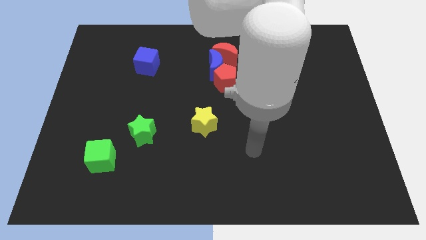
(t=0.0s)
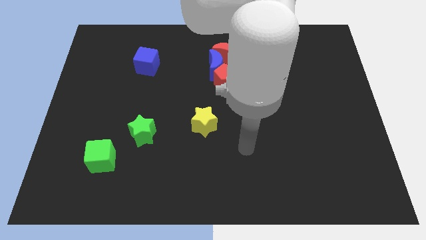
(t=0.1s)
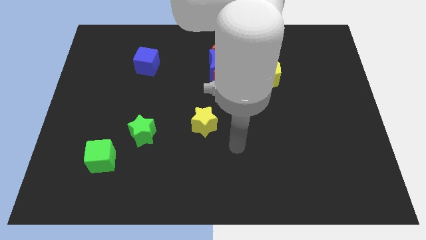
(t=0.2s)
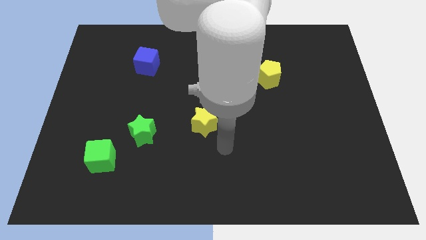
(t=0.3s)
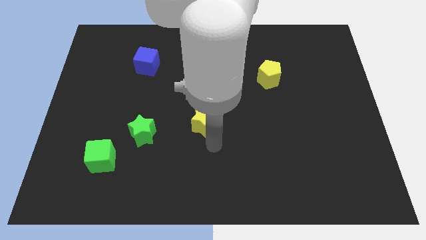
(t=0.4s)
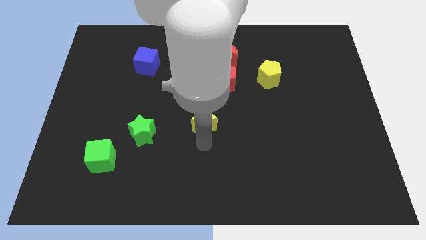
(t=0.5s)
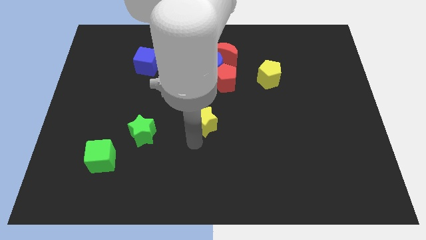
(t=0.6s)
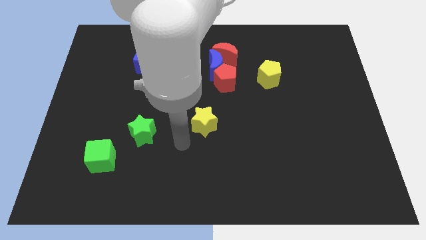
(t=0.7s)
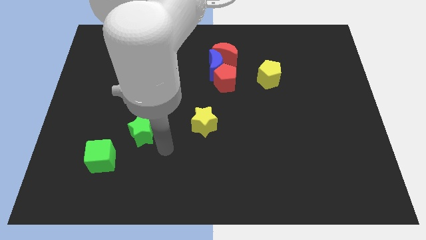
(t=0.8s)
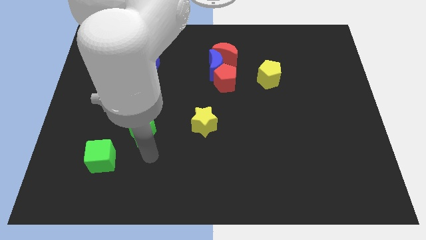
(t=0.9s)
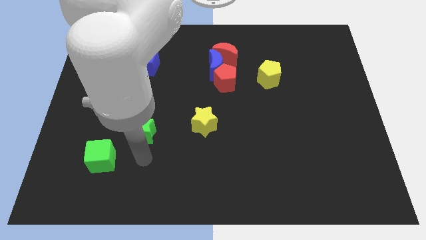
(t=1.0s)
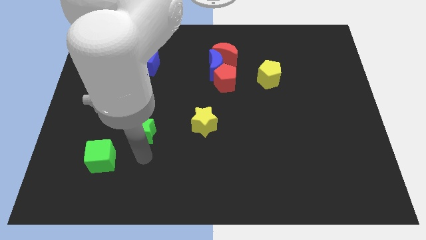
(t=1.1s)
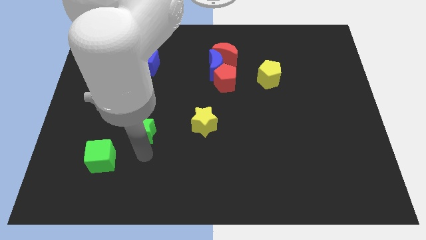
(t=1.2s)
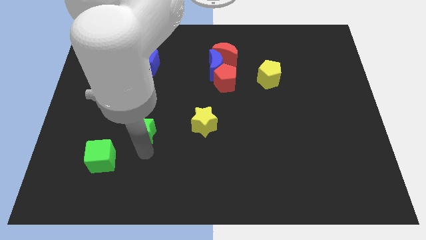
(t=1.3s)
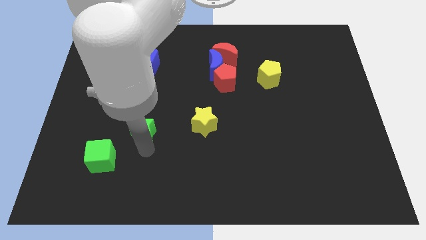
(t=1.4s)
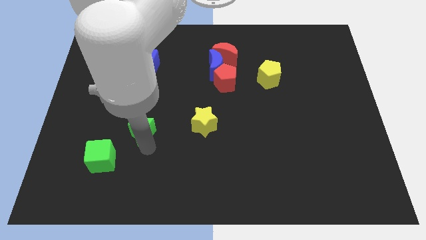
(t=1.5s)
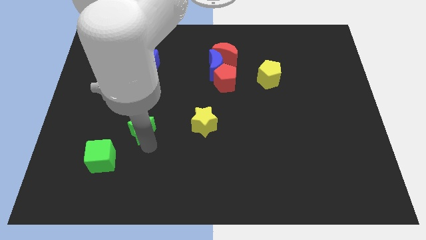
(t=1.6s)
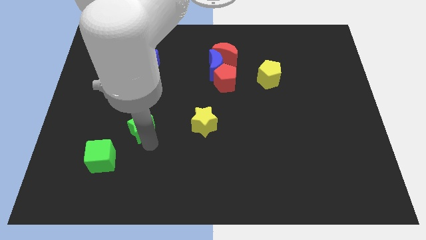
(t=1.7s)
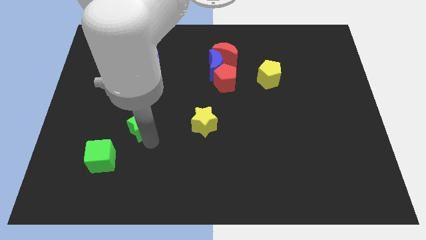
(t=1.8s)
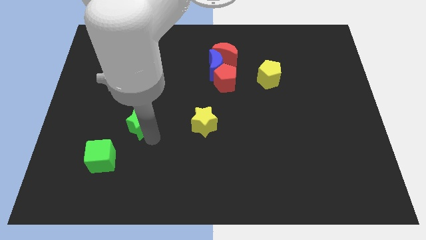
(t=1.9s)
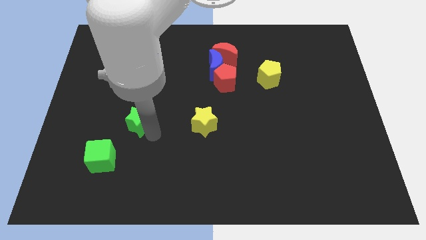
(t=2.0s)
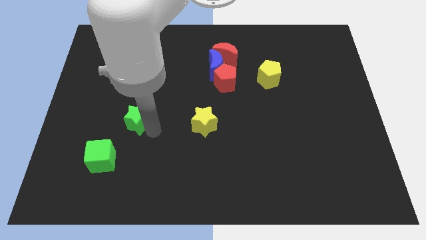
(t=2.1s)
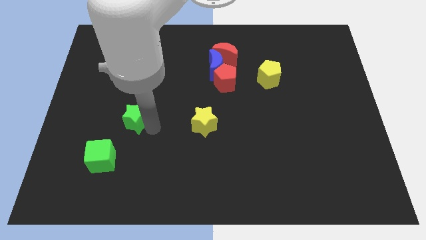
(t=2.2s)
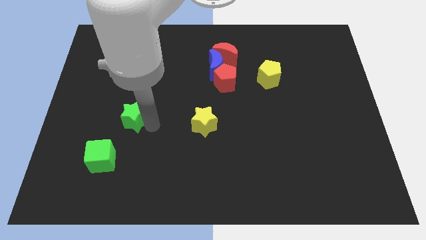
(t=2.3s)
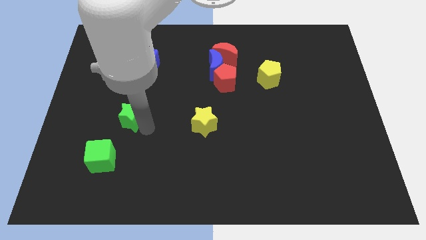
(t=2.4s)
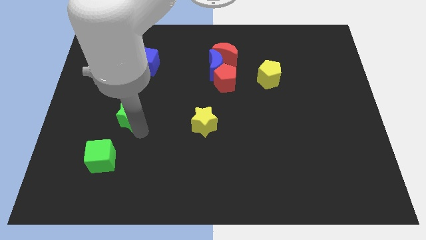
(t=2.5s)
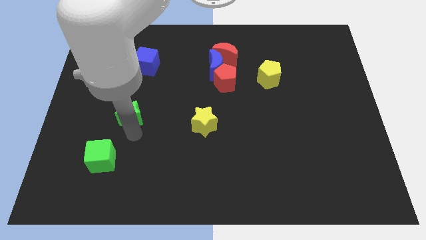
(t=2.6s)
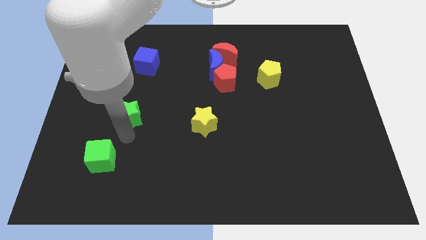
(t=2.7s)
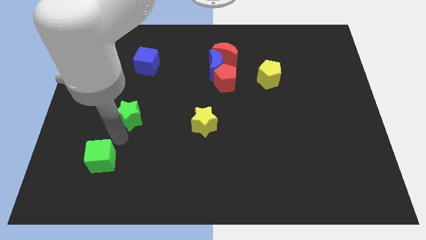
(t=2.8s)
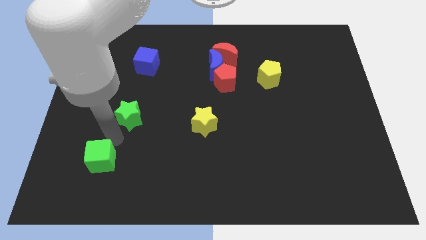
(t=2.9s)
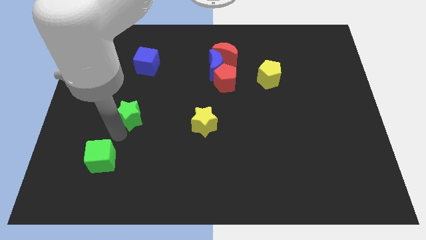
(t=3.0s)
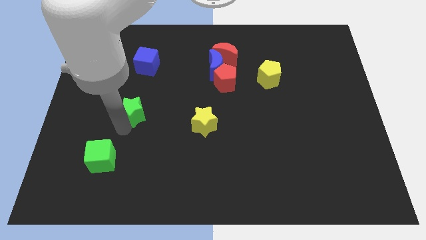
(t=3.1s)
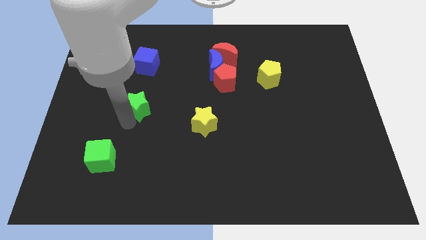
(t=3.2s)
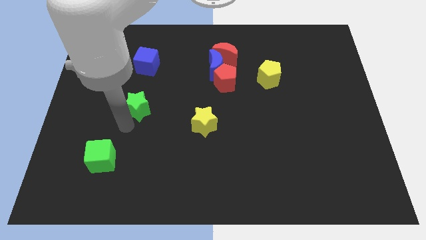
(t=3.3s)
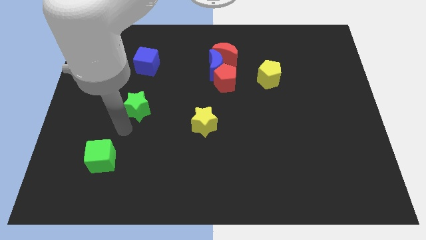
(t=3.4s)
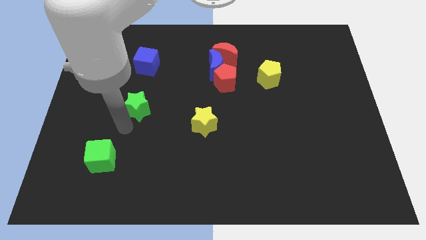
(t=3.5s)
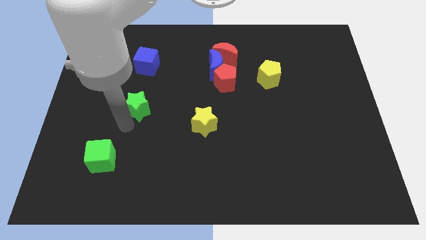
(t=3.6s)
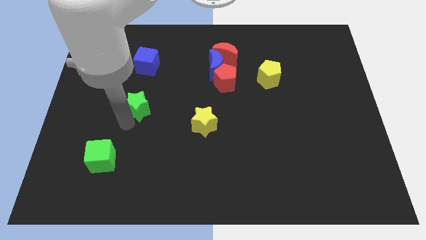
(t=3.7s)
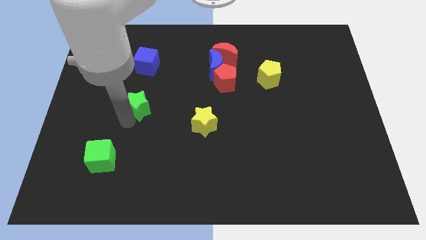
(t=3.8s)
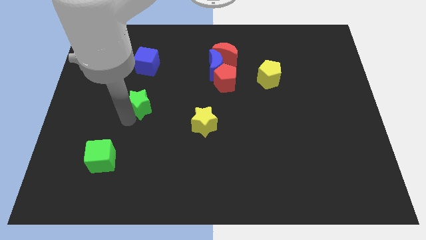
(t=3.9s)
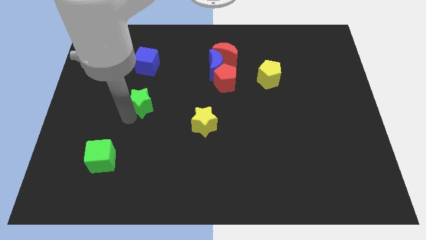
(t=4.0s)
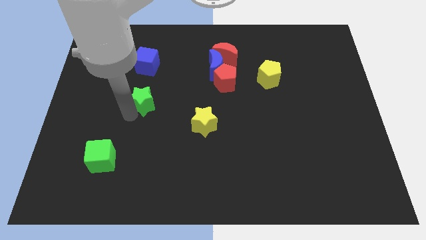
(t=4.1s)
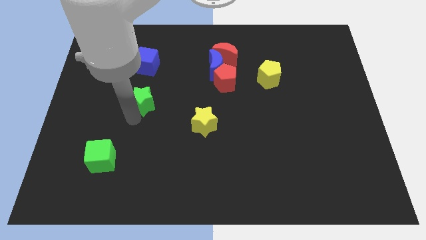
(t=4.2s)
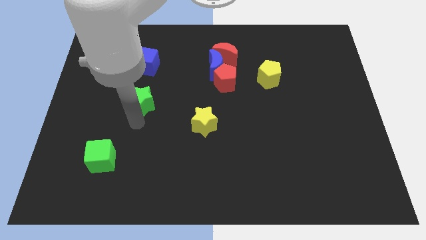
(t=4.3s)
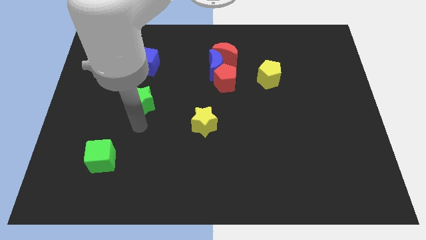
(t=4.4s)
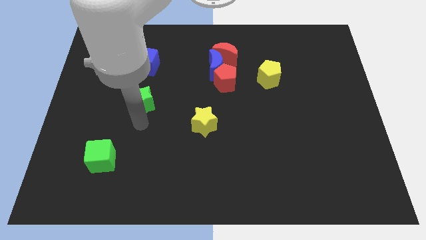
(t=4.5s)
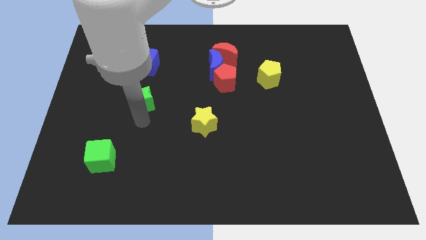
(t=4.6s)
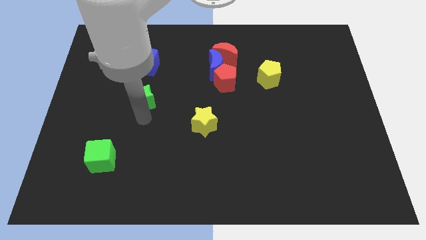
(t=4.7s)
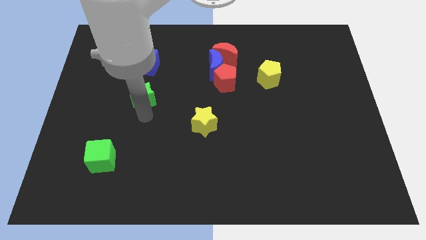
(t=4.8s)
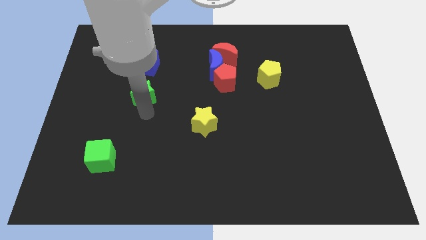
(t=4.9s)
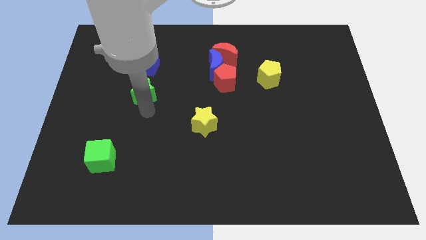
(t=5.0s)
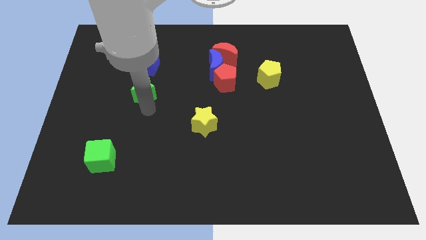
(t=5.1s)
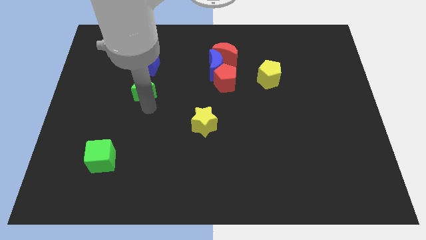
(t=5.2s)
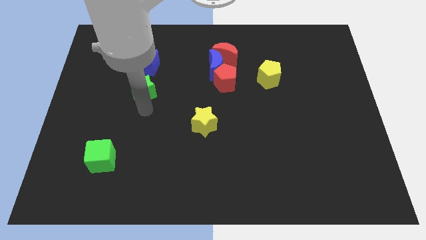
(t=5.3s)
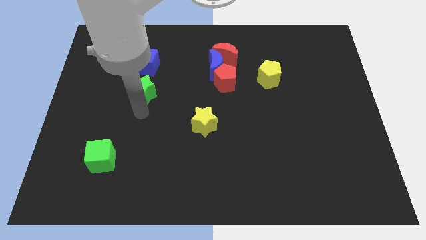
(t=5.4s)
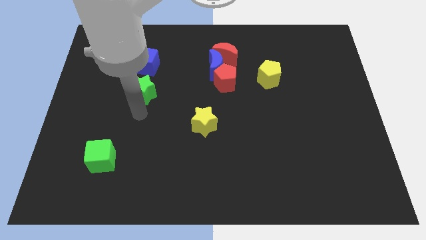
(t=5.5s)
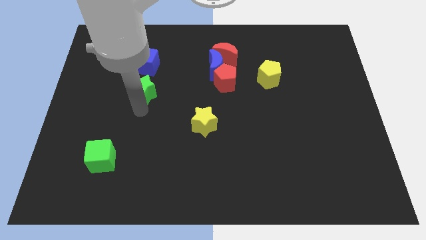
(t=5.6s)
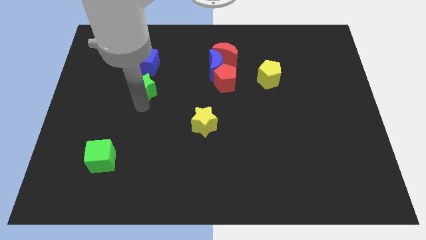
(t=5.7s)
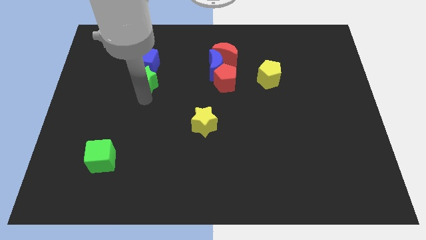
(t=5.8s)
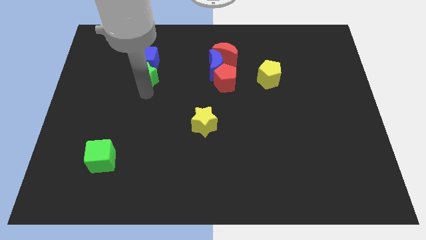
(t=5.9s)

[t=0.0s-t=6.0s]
push the green star next to the blue cube
